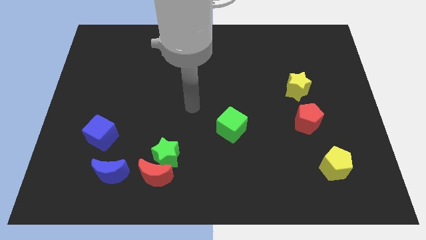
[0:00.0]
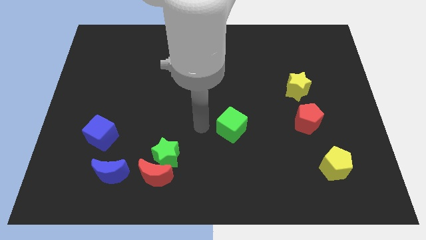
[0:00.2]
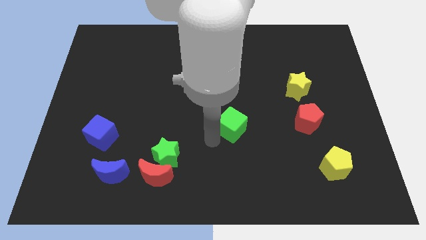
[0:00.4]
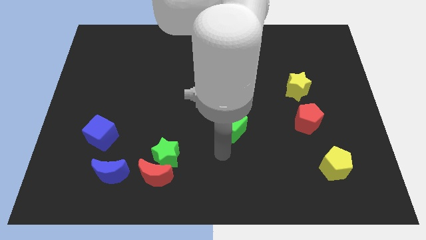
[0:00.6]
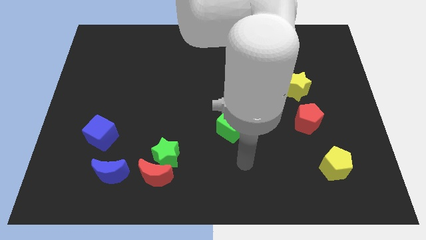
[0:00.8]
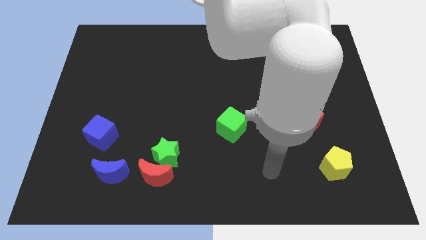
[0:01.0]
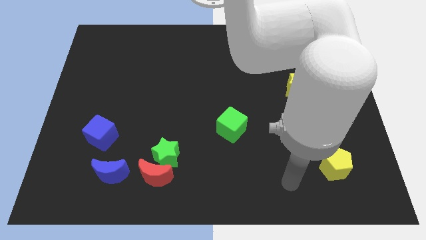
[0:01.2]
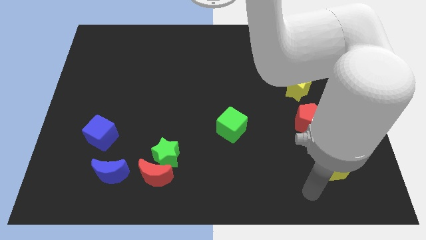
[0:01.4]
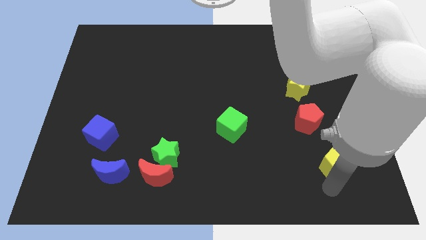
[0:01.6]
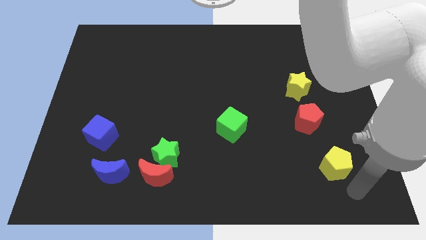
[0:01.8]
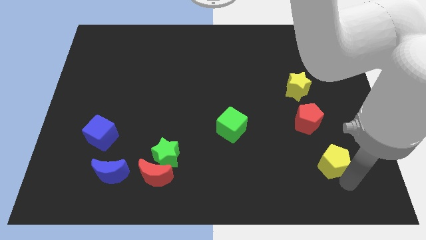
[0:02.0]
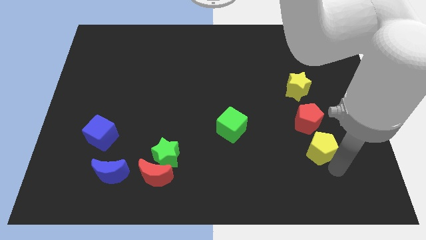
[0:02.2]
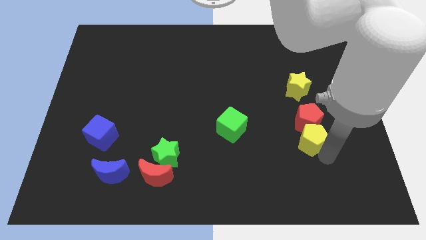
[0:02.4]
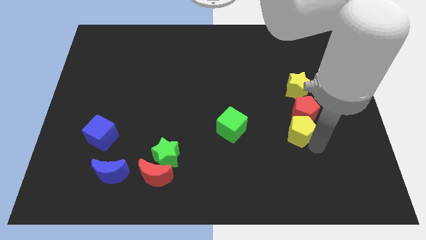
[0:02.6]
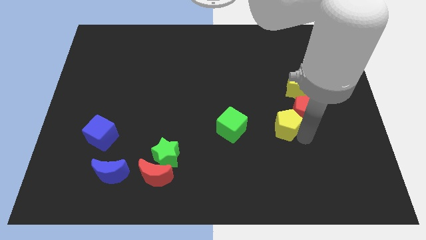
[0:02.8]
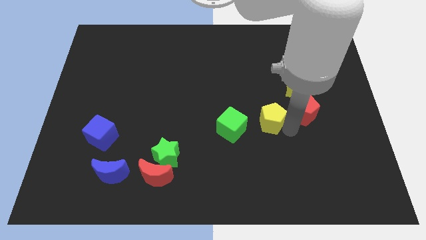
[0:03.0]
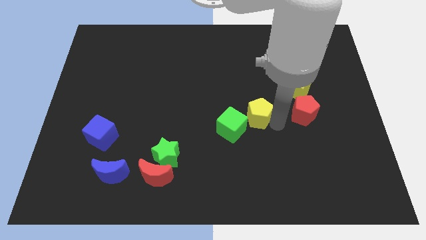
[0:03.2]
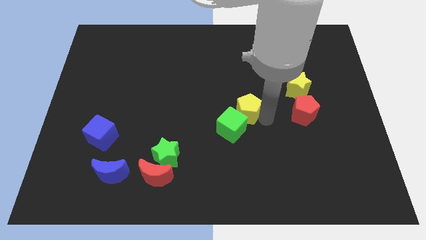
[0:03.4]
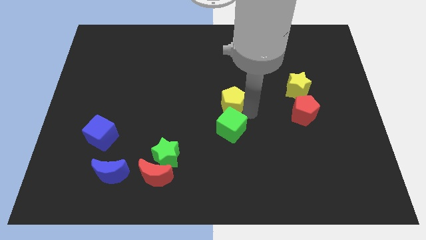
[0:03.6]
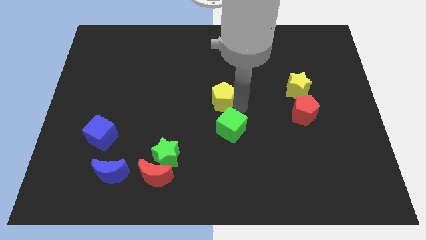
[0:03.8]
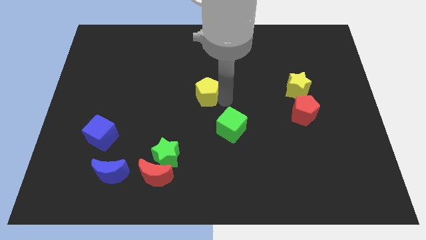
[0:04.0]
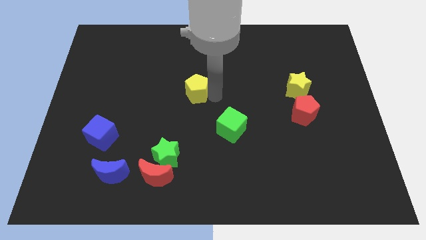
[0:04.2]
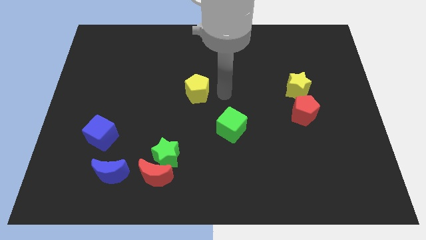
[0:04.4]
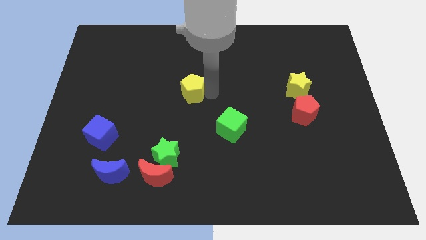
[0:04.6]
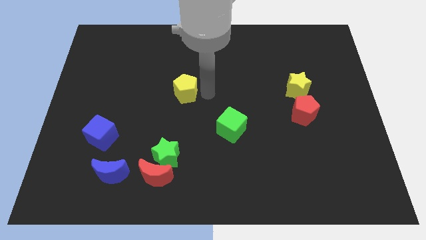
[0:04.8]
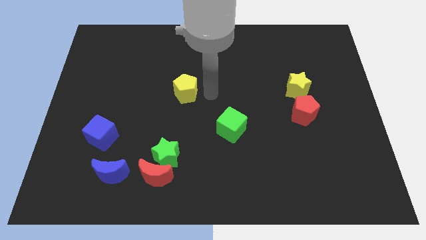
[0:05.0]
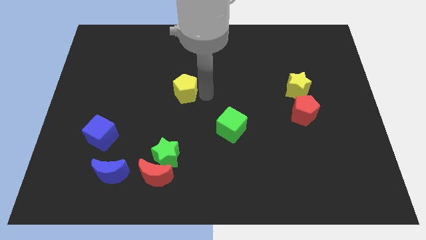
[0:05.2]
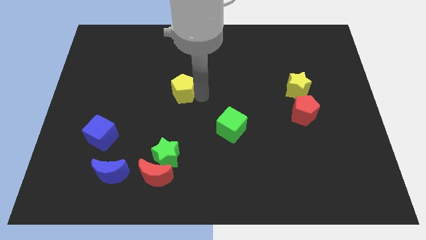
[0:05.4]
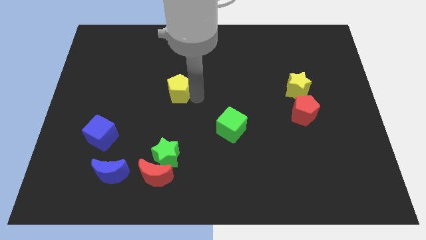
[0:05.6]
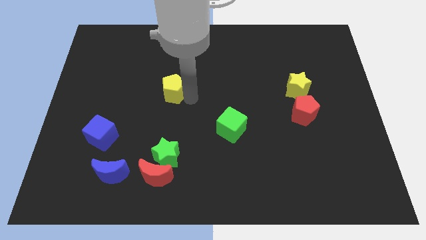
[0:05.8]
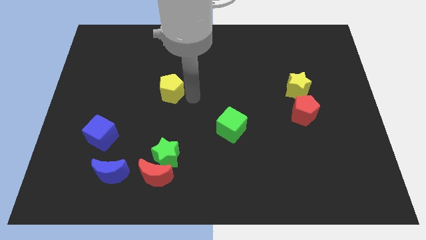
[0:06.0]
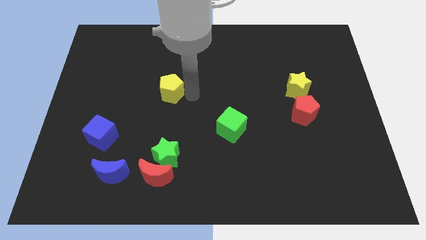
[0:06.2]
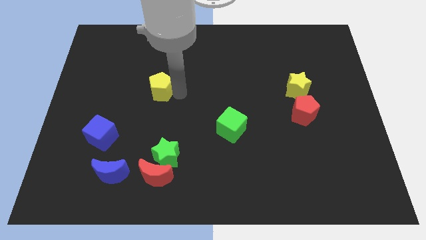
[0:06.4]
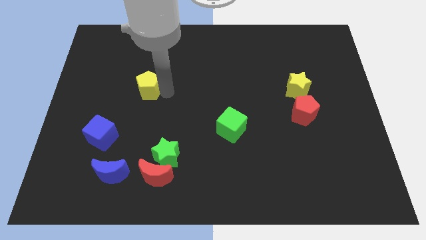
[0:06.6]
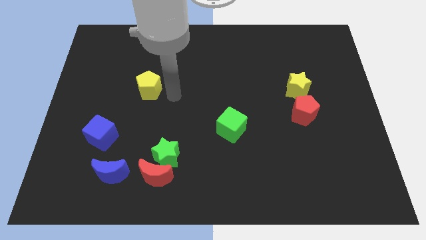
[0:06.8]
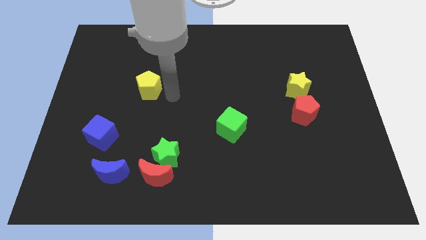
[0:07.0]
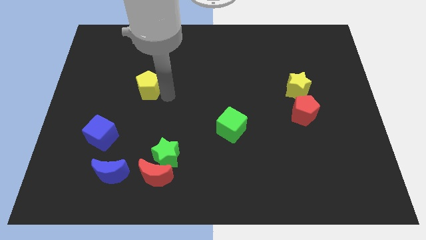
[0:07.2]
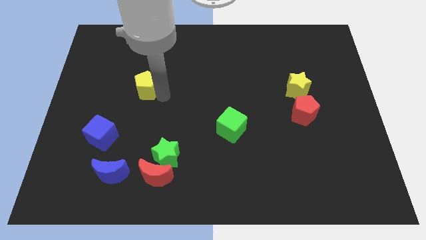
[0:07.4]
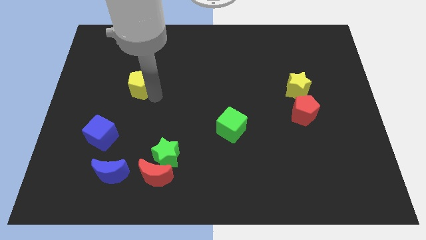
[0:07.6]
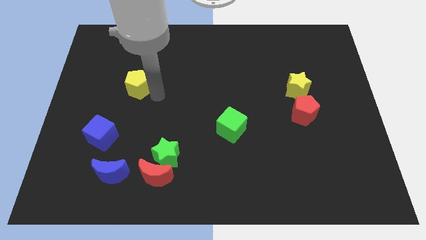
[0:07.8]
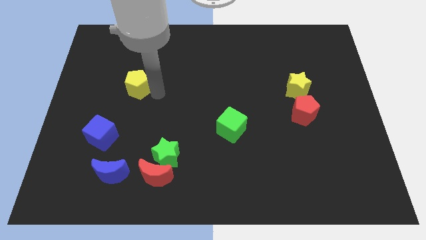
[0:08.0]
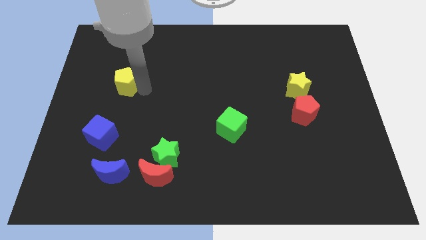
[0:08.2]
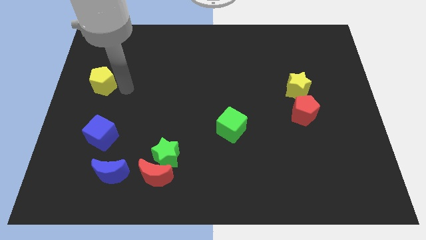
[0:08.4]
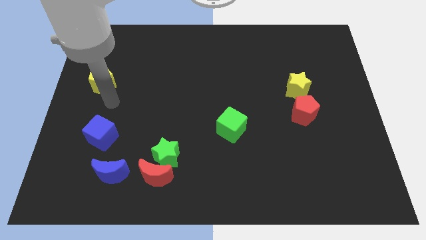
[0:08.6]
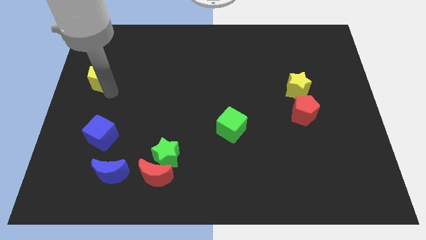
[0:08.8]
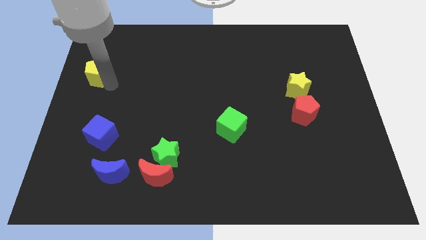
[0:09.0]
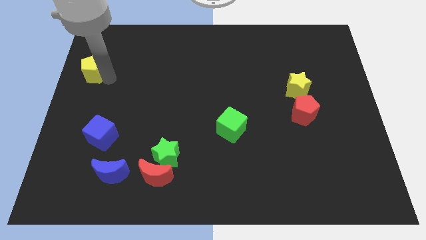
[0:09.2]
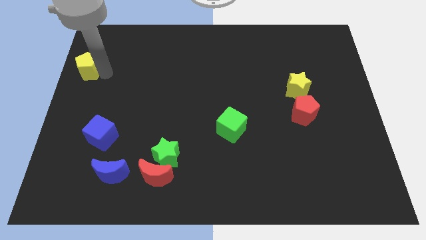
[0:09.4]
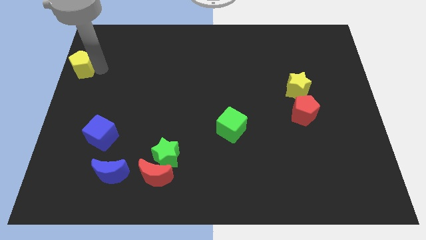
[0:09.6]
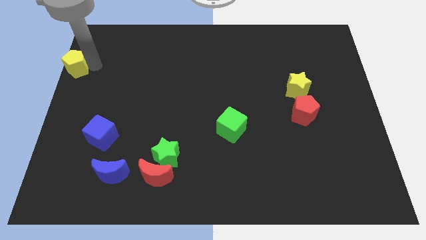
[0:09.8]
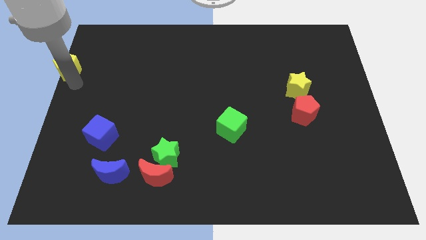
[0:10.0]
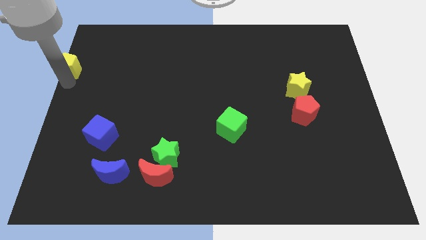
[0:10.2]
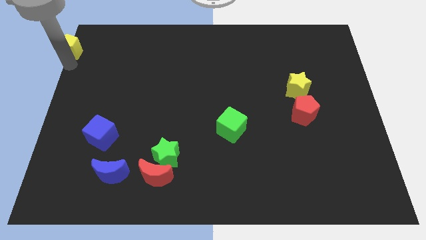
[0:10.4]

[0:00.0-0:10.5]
push the yellow pentagon to the top left corner

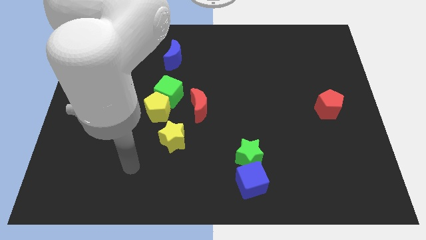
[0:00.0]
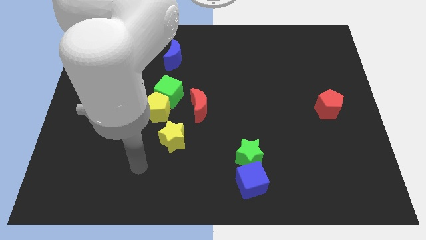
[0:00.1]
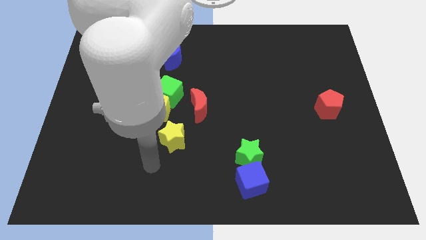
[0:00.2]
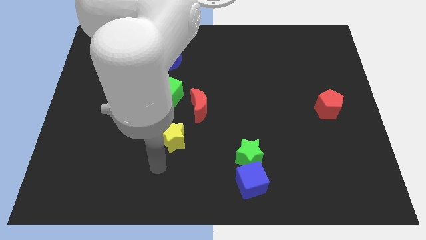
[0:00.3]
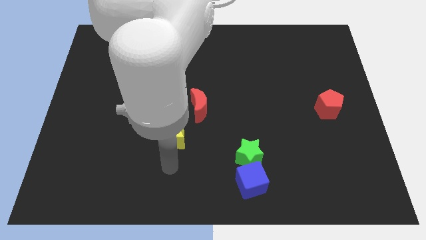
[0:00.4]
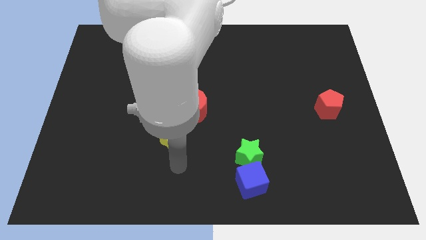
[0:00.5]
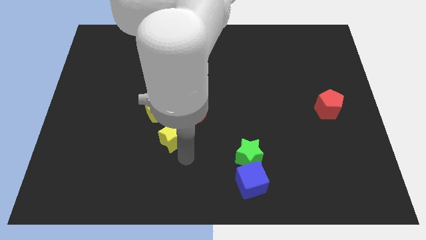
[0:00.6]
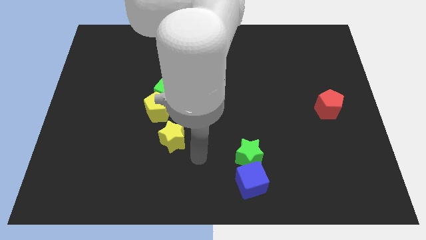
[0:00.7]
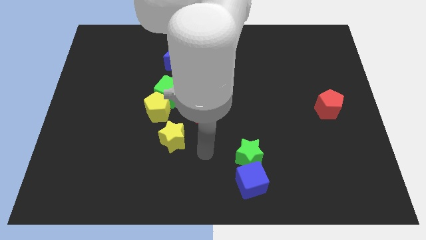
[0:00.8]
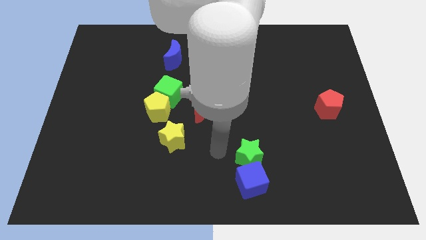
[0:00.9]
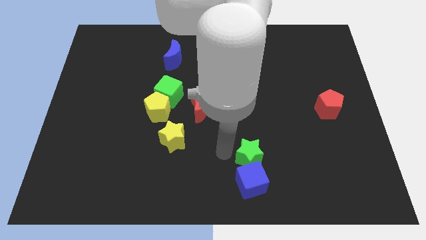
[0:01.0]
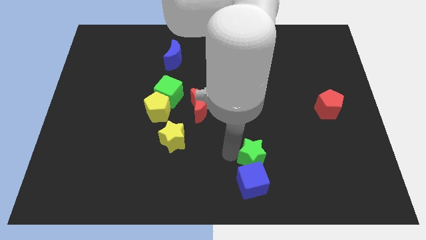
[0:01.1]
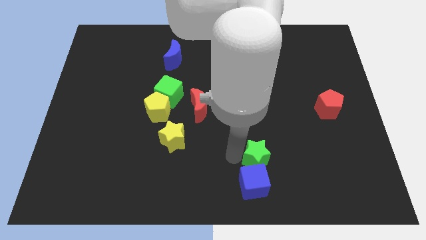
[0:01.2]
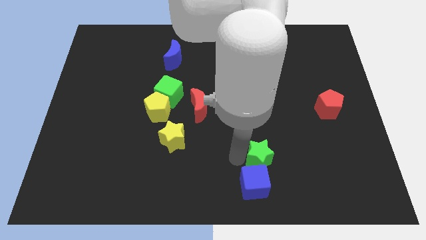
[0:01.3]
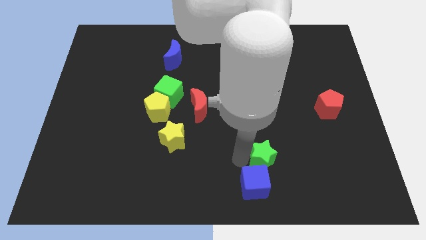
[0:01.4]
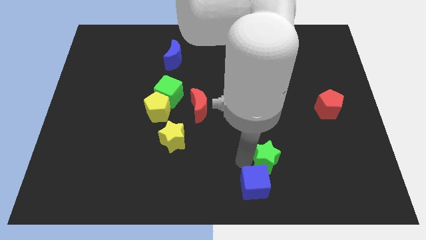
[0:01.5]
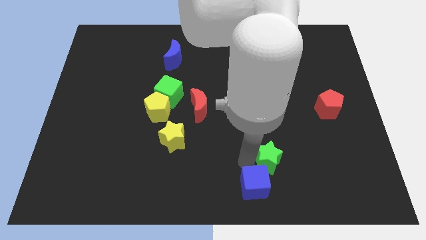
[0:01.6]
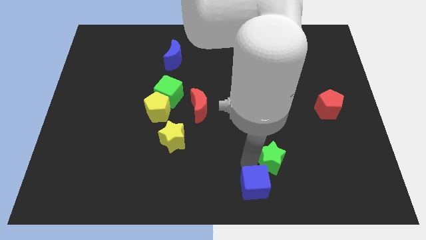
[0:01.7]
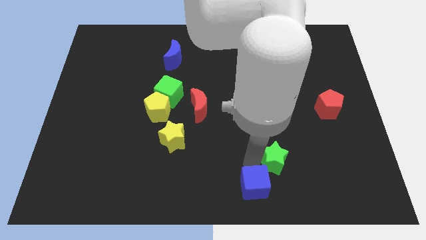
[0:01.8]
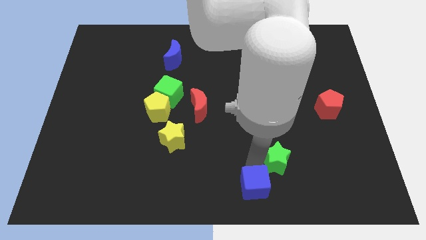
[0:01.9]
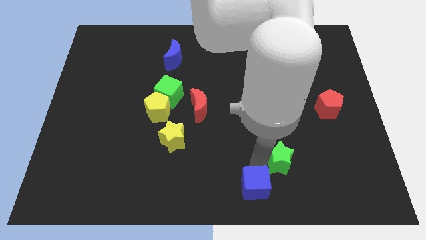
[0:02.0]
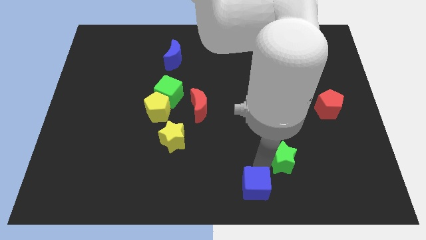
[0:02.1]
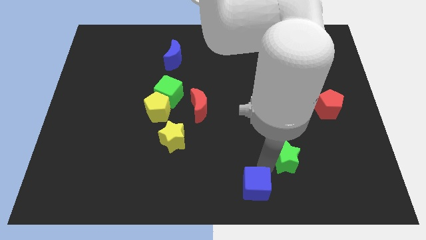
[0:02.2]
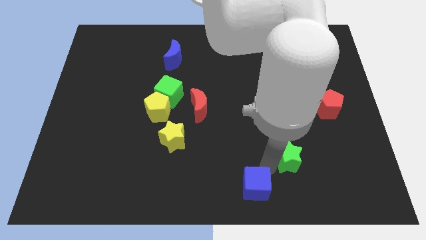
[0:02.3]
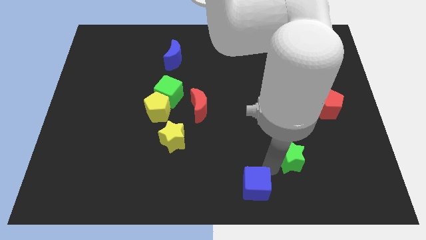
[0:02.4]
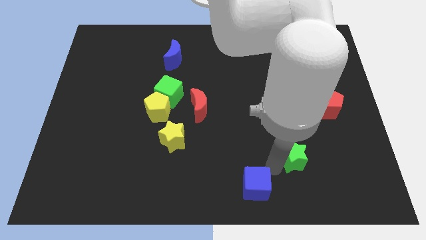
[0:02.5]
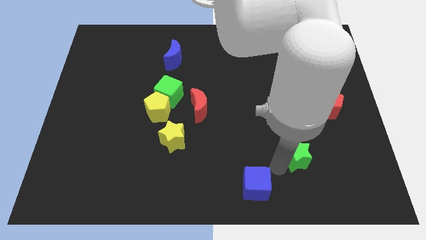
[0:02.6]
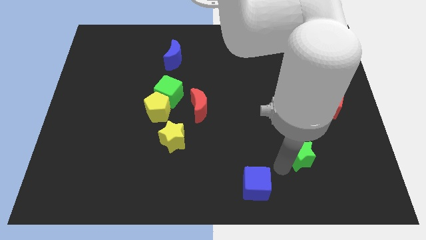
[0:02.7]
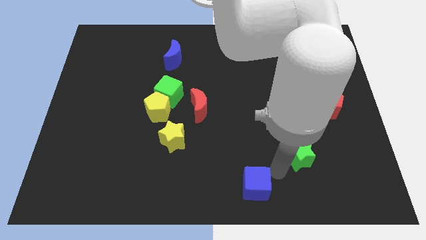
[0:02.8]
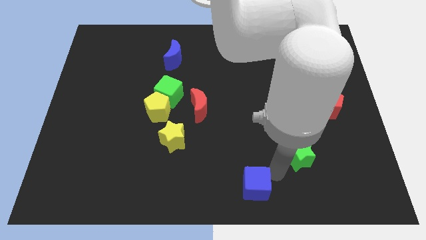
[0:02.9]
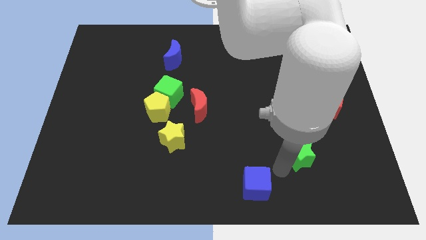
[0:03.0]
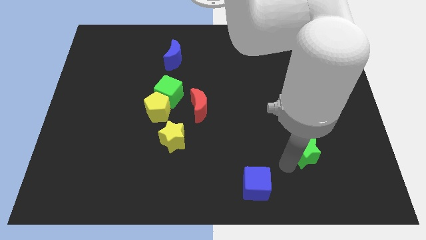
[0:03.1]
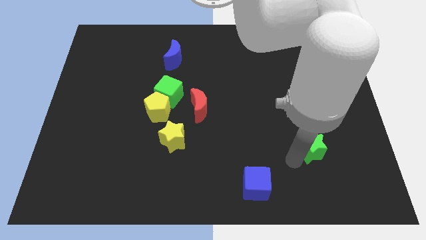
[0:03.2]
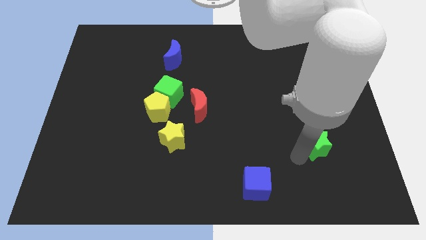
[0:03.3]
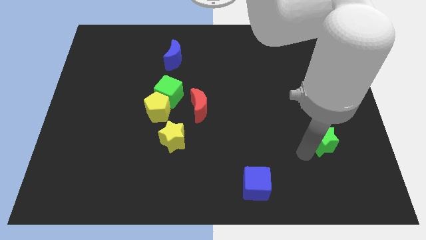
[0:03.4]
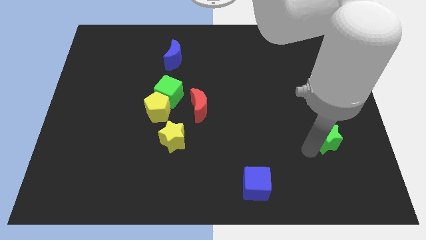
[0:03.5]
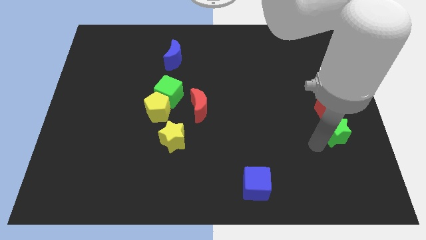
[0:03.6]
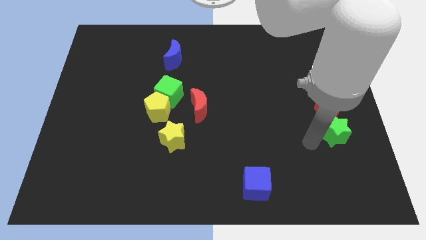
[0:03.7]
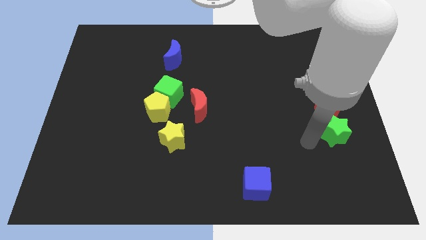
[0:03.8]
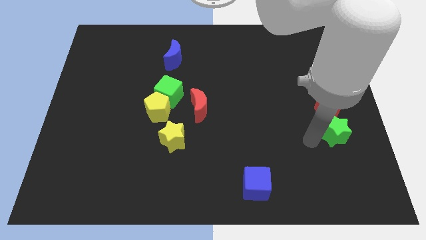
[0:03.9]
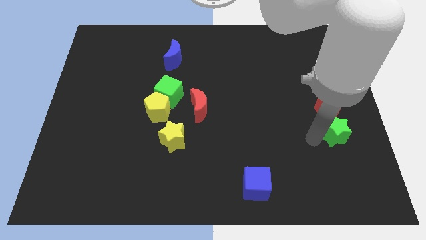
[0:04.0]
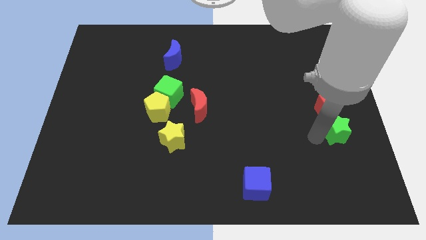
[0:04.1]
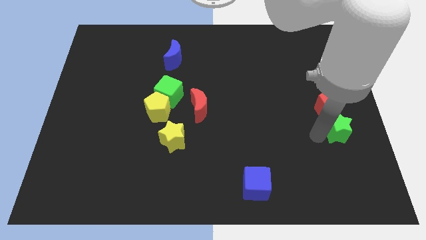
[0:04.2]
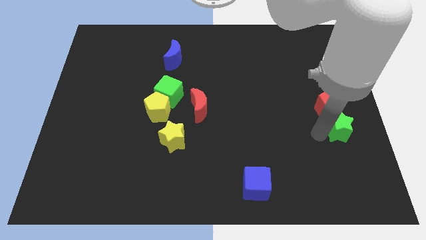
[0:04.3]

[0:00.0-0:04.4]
put the green star to the center right
